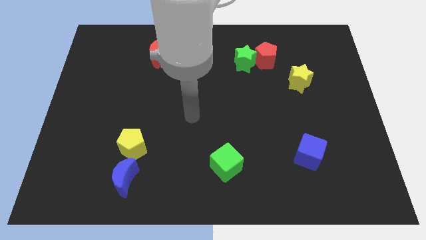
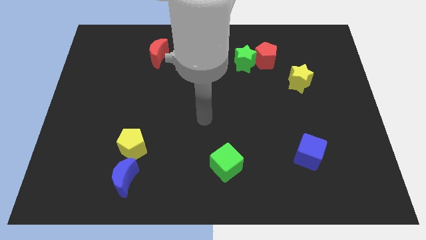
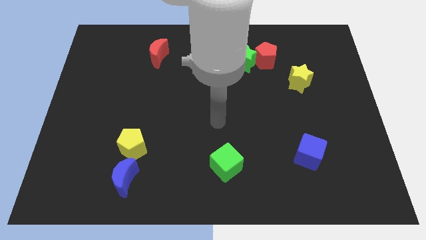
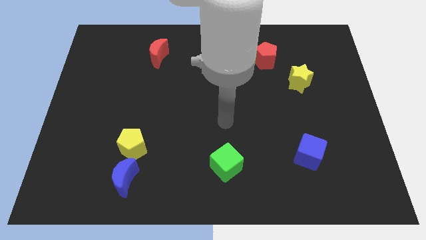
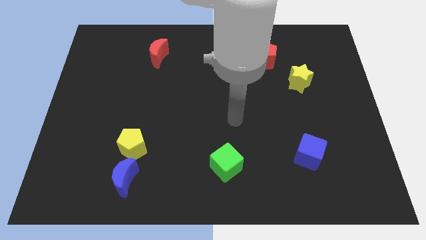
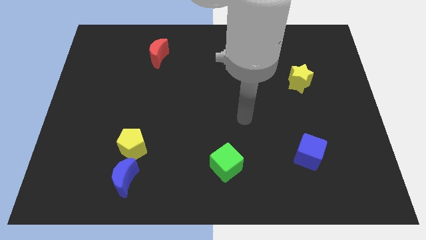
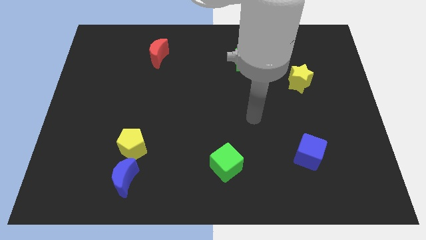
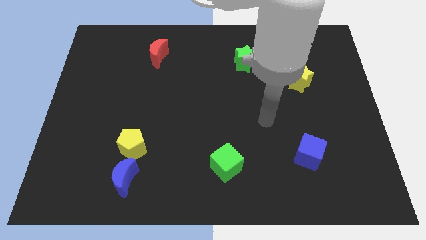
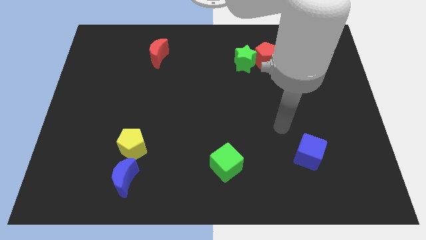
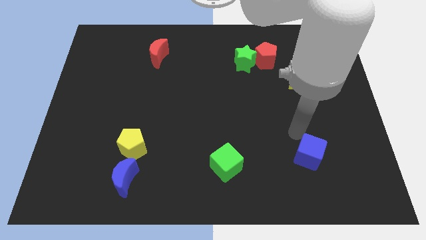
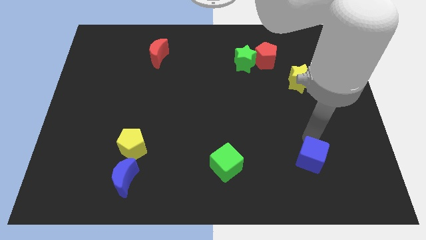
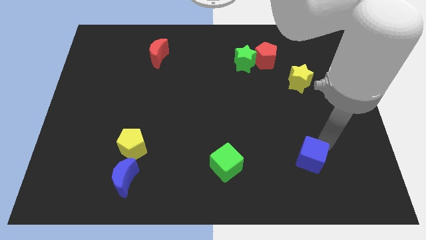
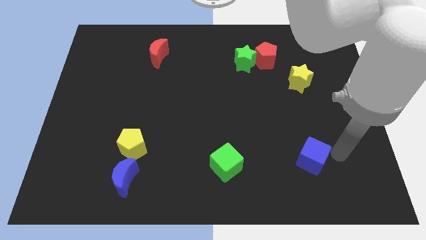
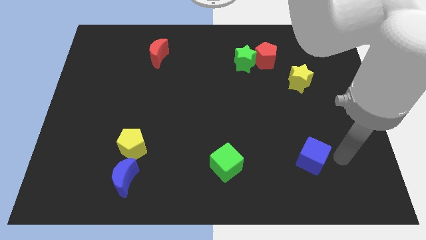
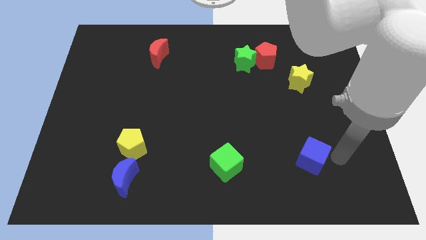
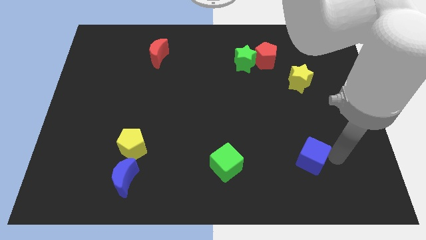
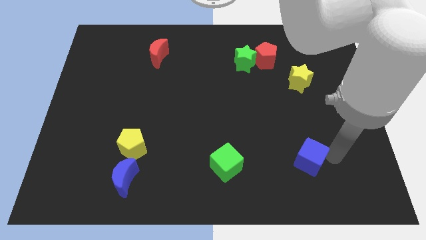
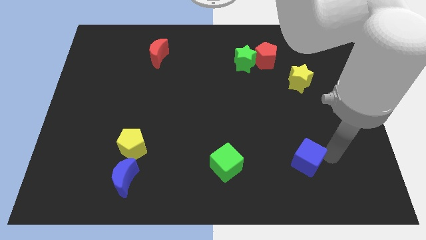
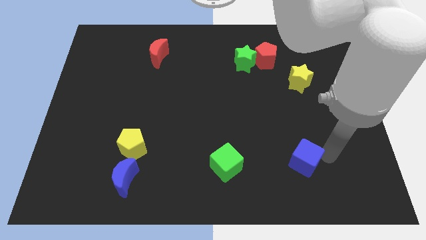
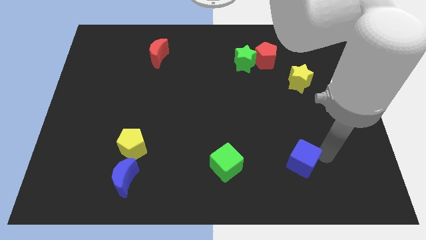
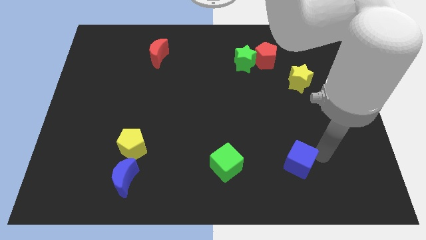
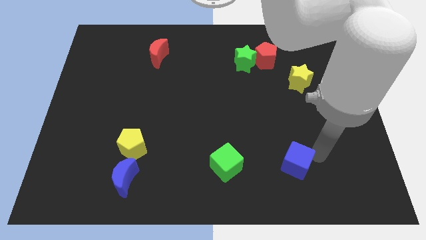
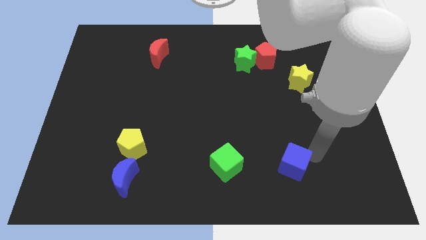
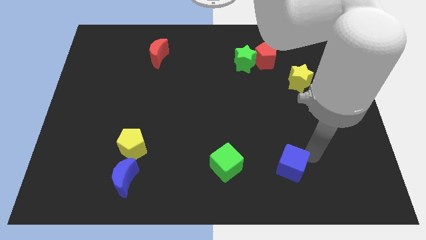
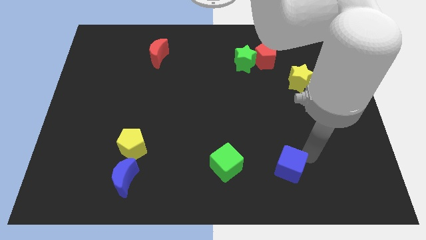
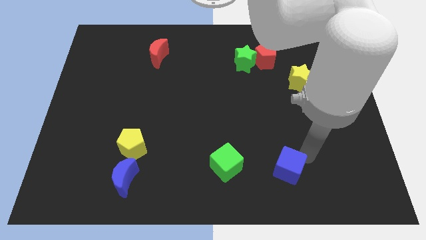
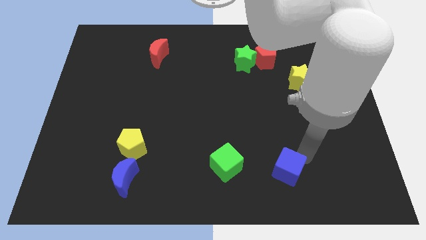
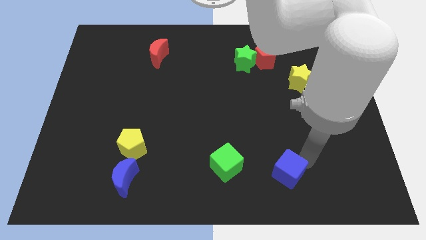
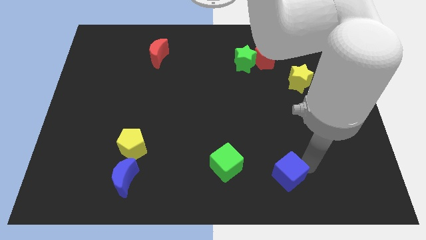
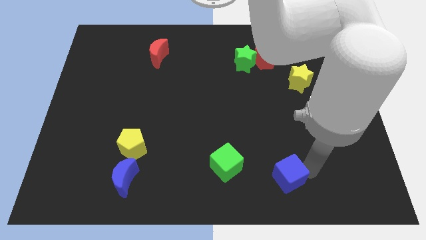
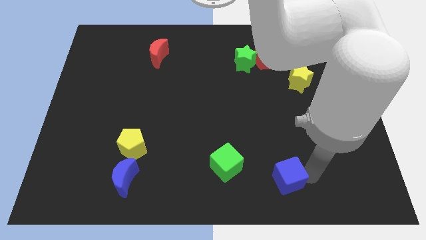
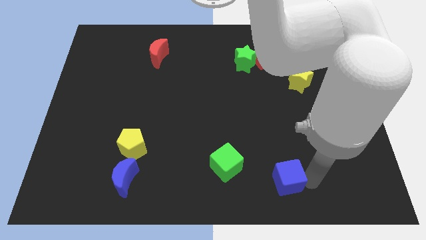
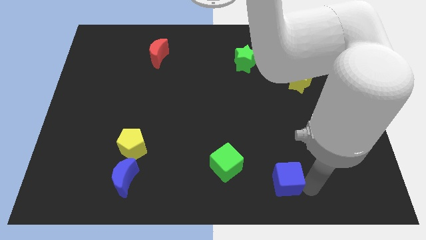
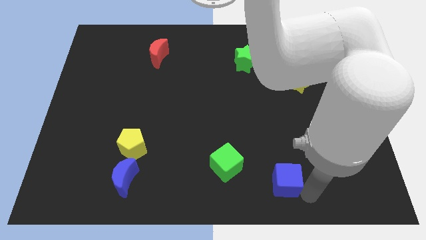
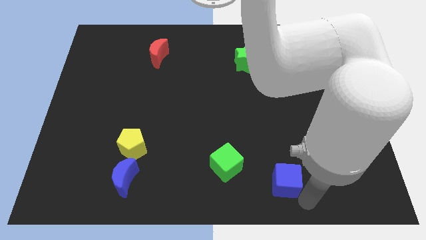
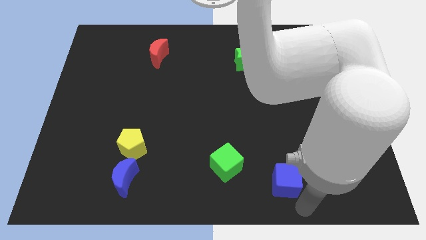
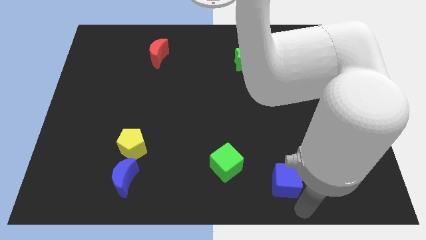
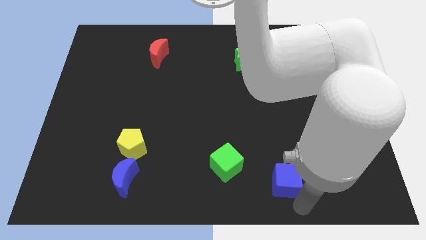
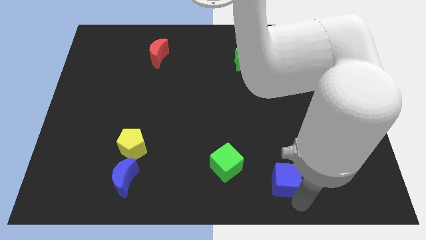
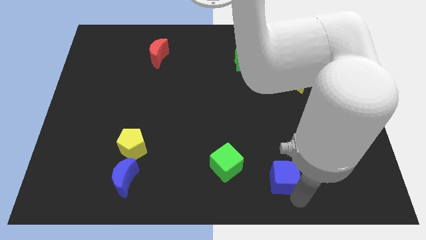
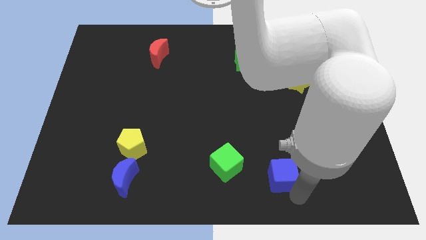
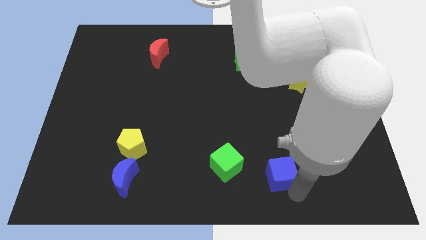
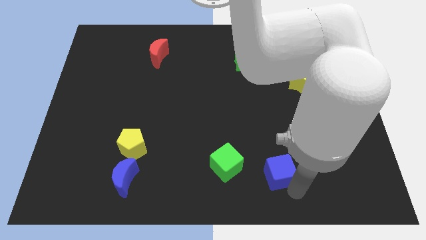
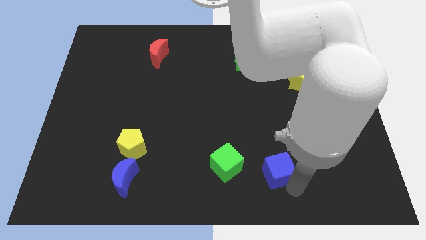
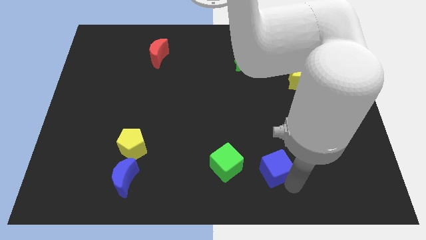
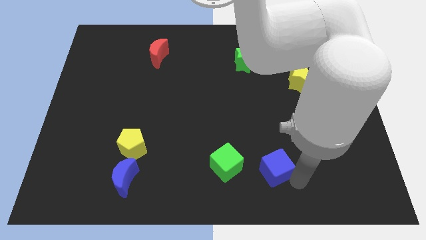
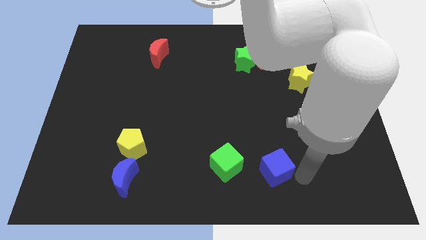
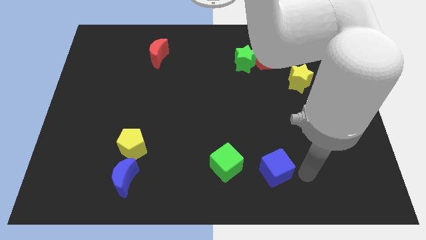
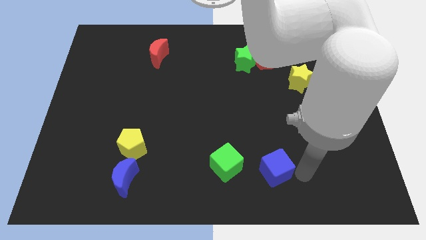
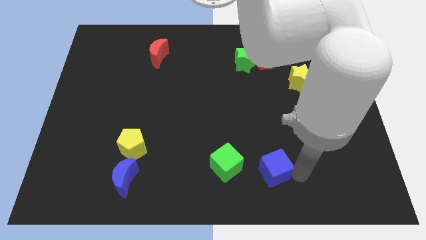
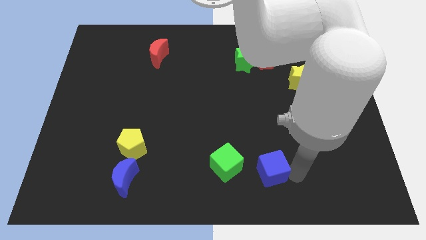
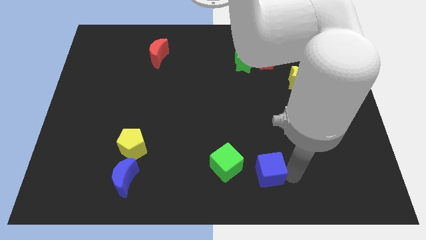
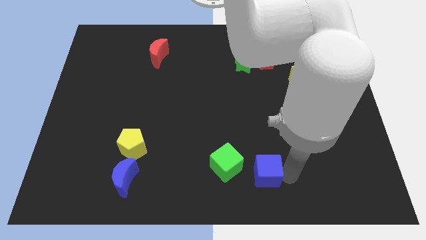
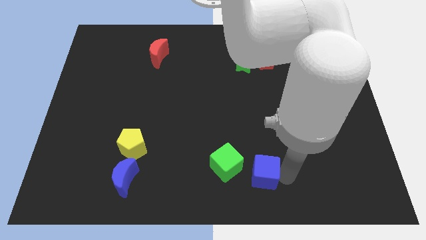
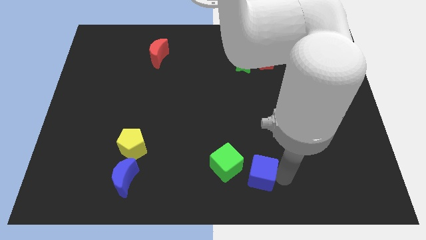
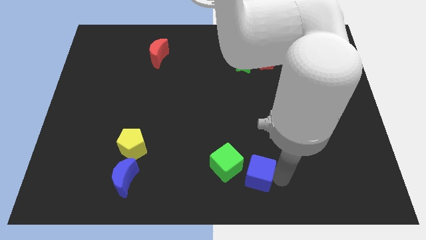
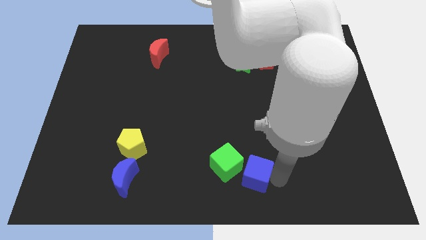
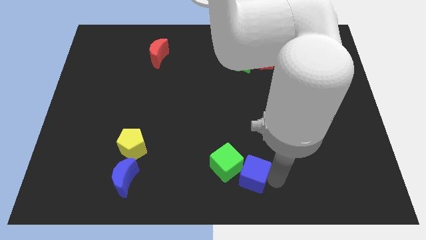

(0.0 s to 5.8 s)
slide the blue cube to the green cube

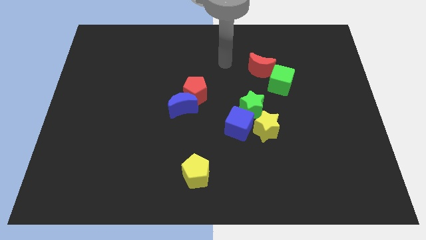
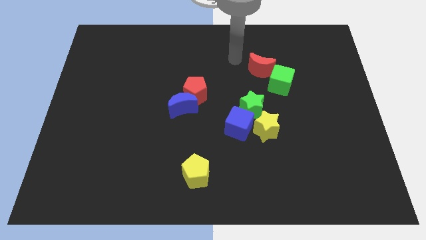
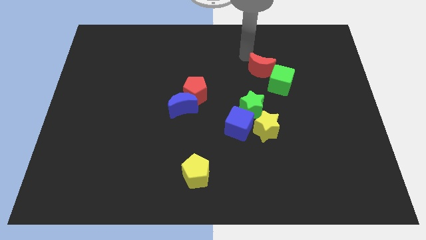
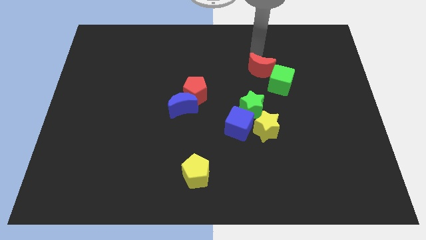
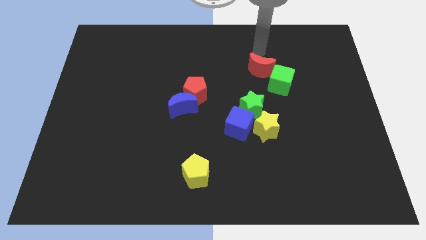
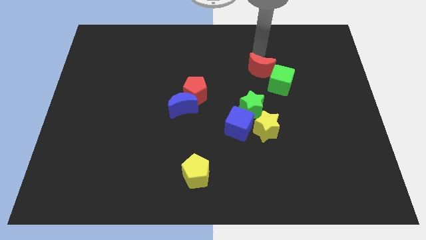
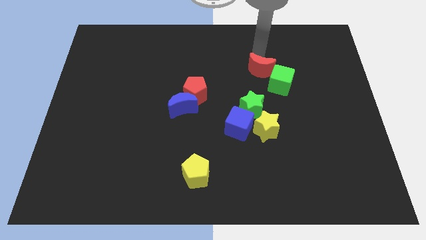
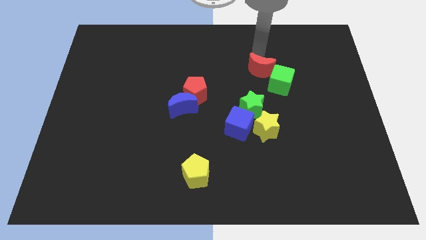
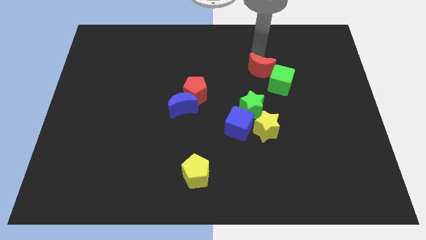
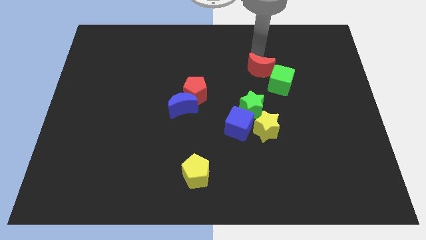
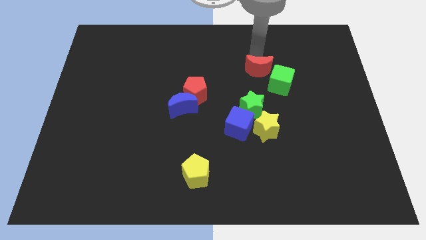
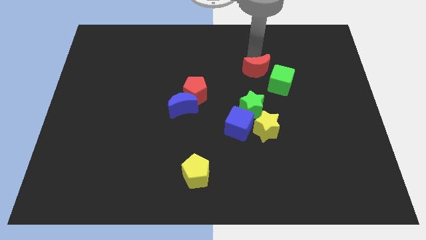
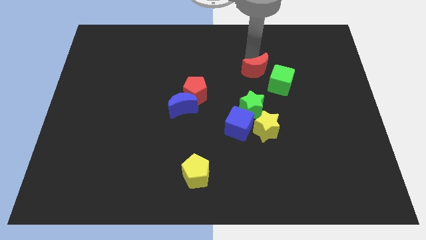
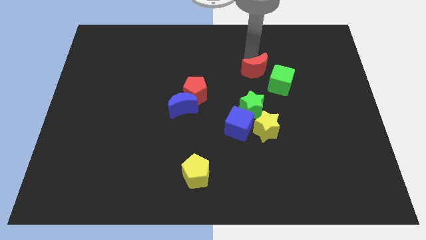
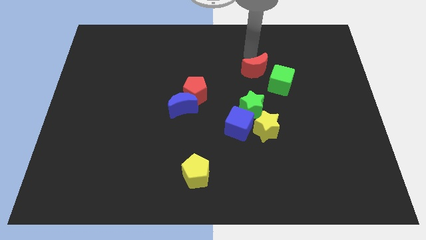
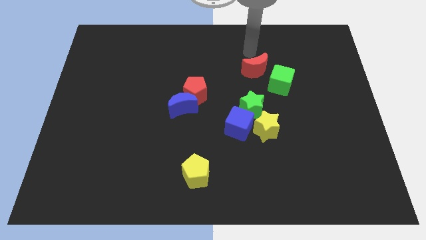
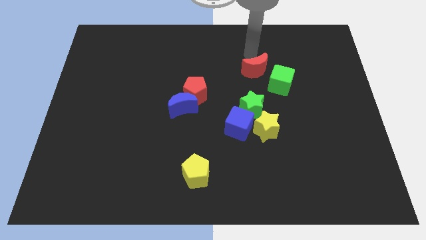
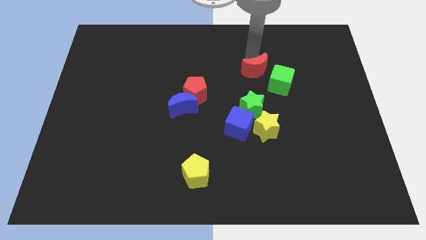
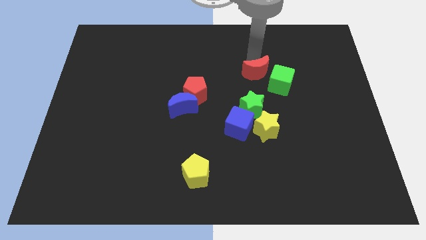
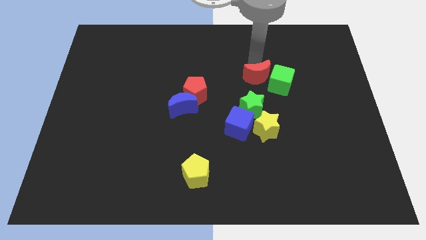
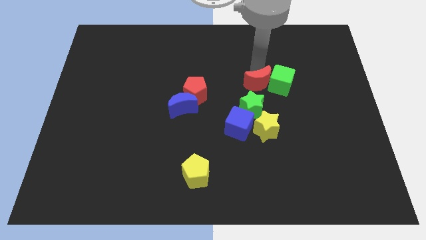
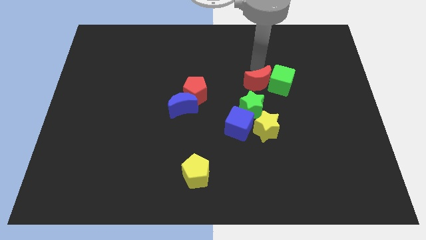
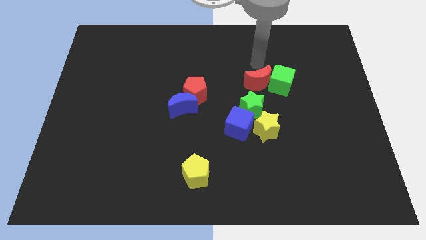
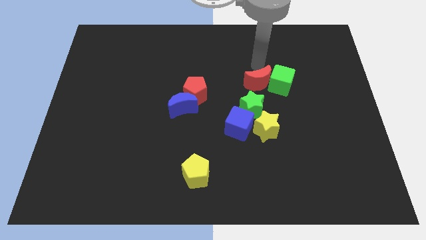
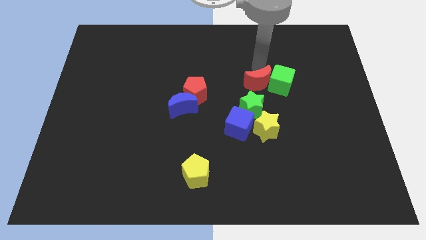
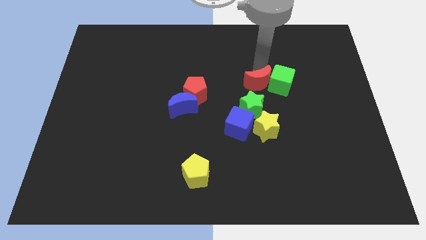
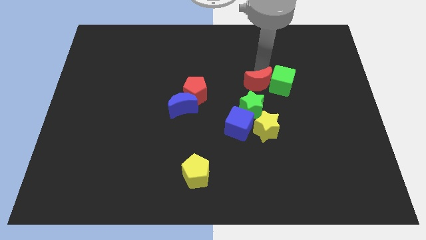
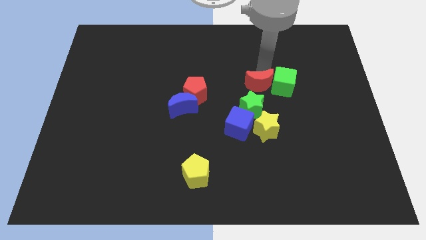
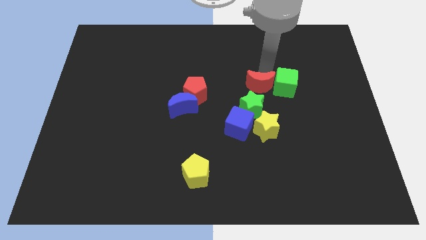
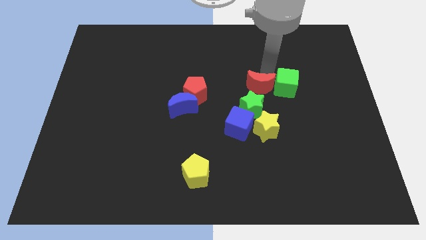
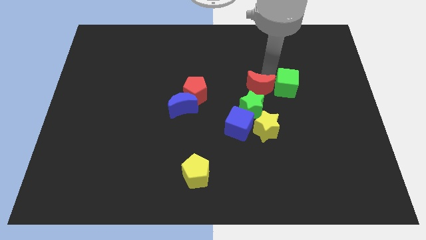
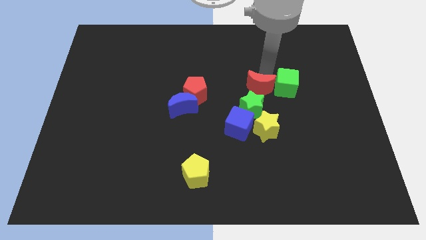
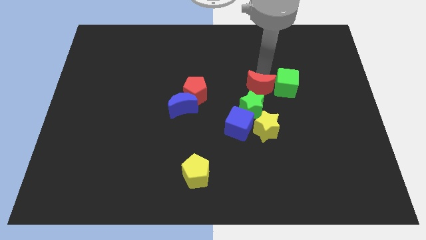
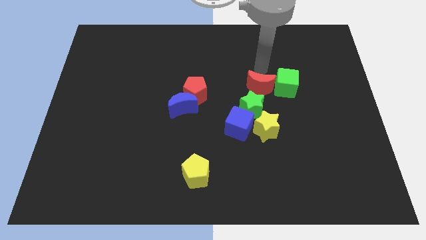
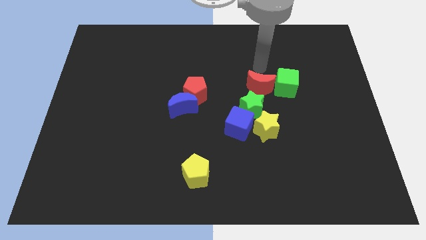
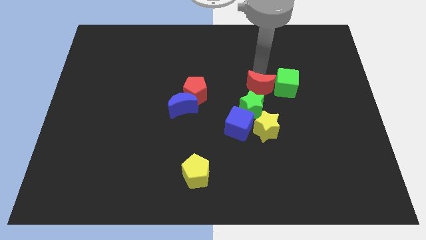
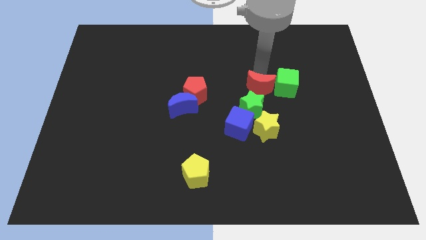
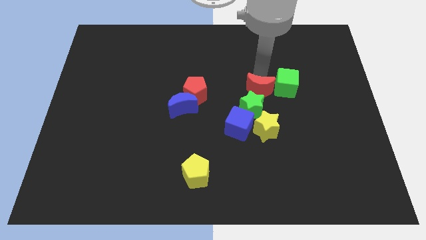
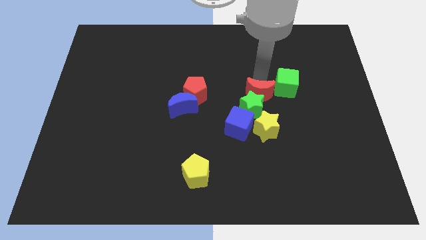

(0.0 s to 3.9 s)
move the red moon to the green star
